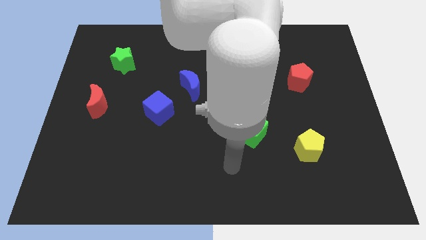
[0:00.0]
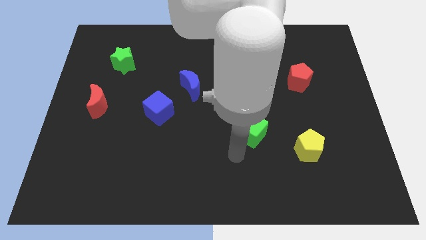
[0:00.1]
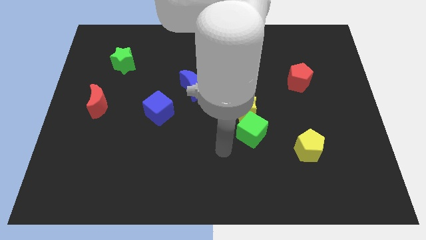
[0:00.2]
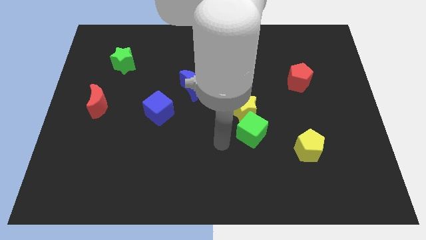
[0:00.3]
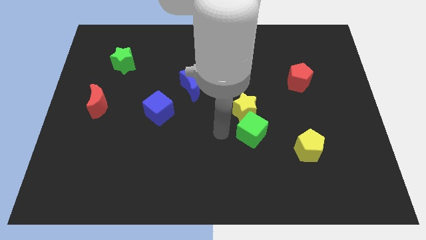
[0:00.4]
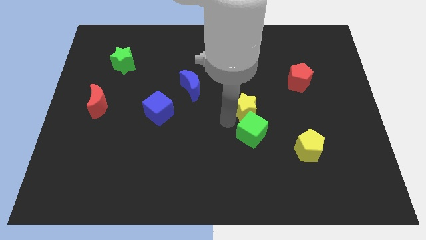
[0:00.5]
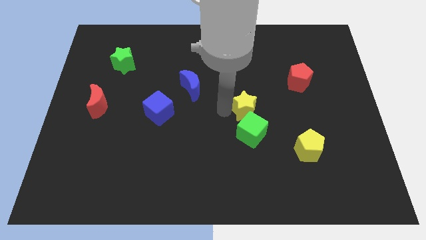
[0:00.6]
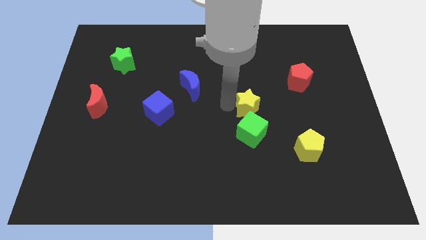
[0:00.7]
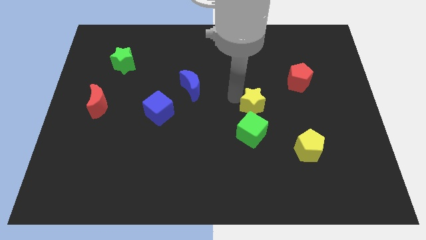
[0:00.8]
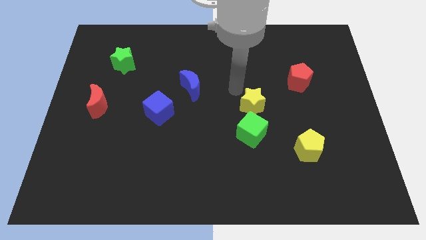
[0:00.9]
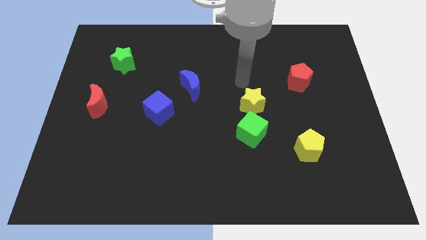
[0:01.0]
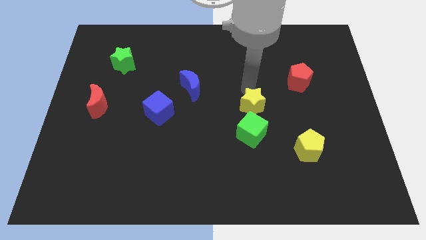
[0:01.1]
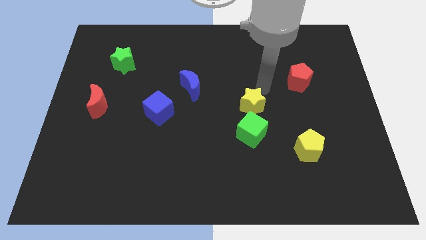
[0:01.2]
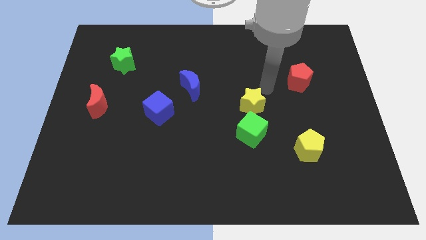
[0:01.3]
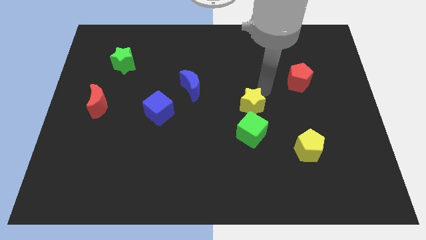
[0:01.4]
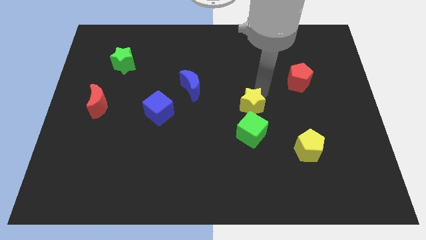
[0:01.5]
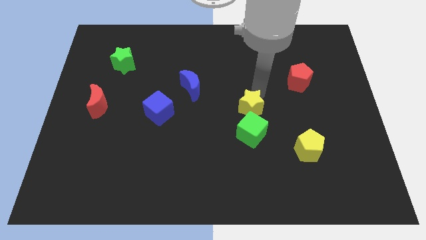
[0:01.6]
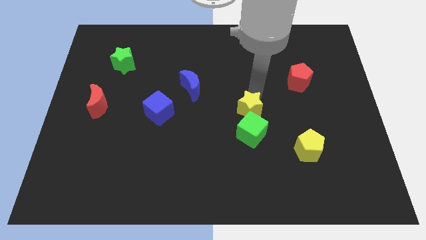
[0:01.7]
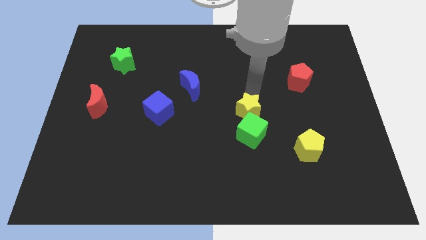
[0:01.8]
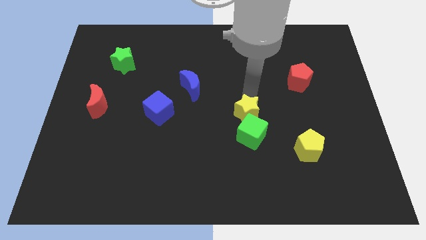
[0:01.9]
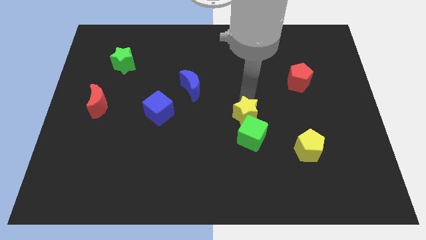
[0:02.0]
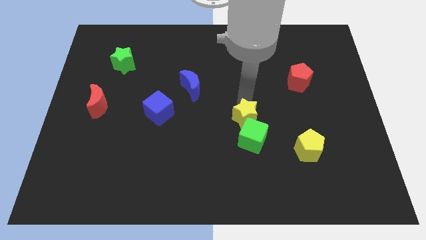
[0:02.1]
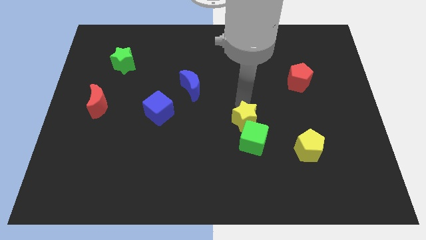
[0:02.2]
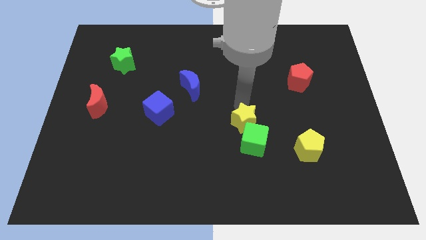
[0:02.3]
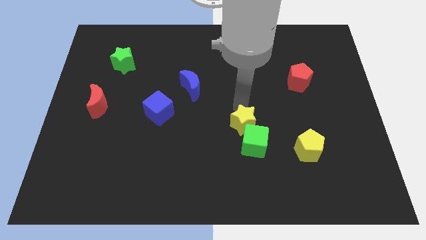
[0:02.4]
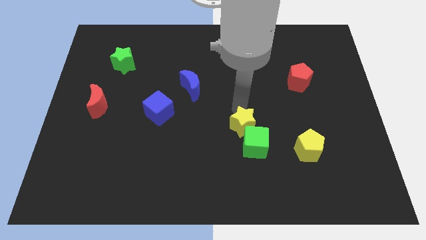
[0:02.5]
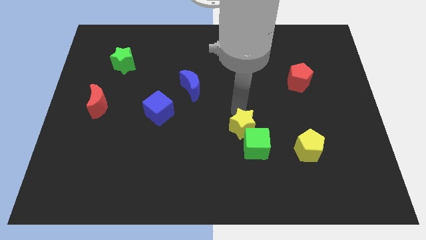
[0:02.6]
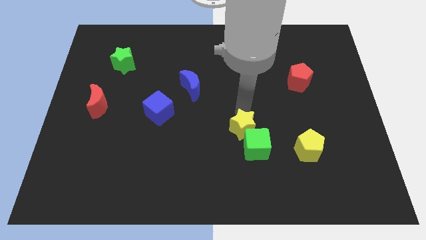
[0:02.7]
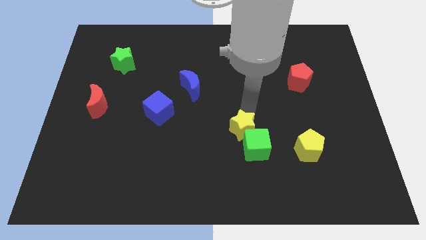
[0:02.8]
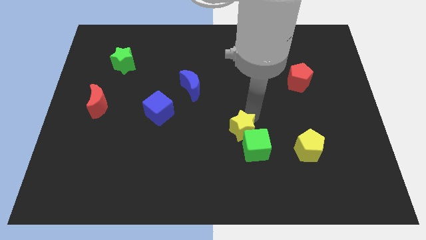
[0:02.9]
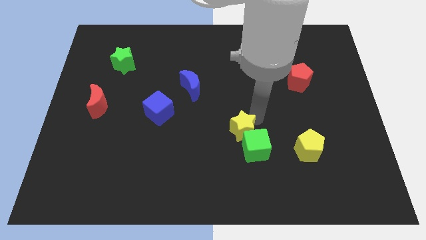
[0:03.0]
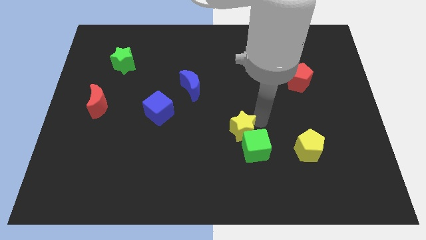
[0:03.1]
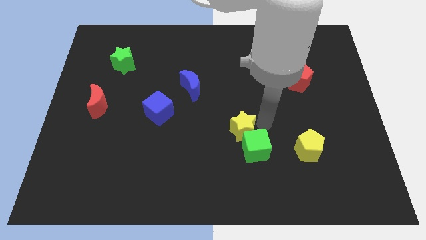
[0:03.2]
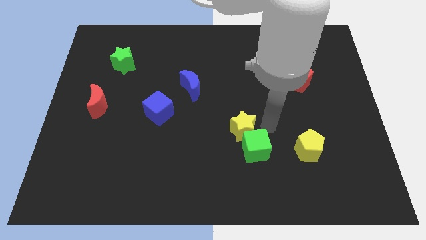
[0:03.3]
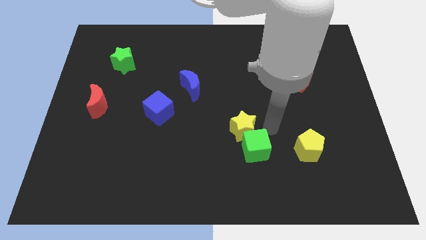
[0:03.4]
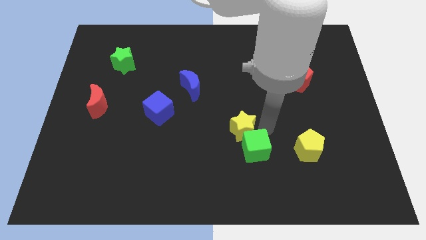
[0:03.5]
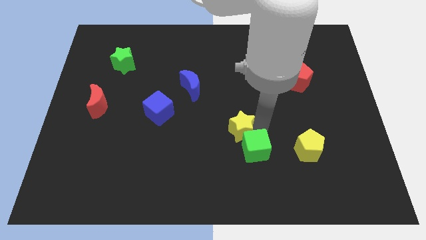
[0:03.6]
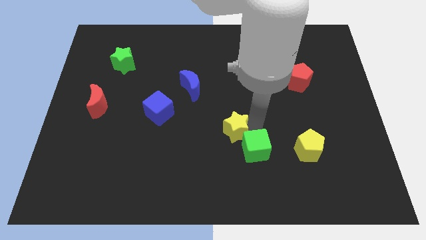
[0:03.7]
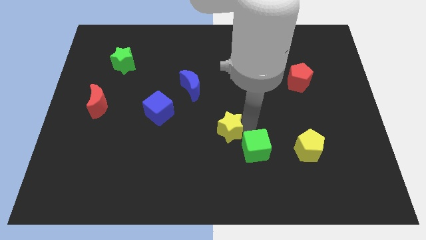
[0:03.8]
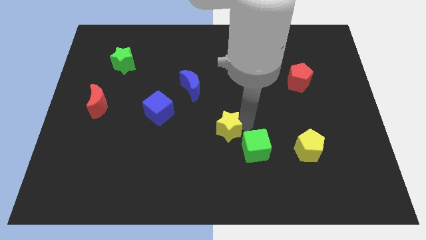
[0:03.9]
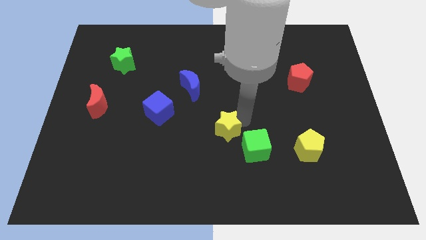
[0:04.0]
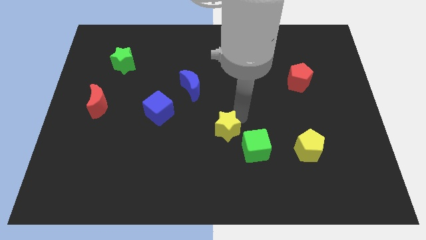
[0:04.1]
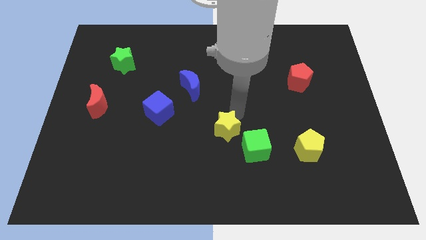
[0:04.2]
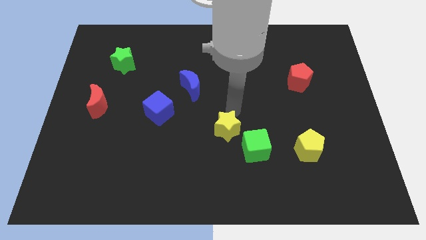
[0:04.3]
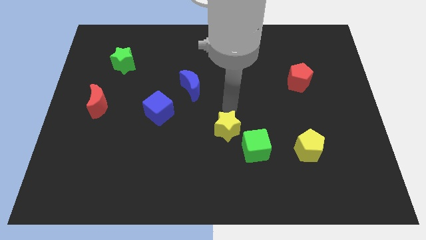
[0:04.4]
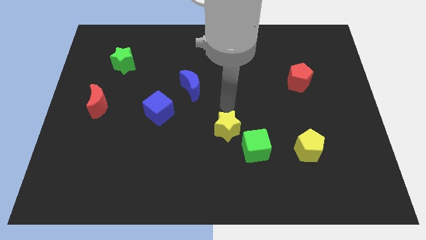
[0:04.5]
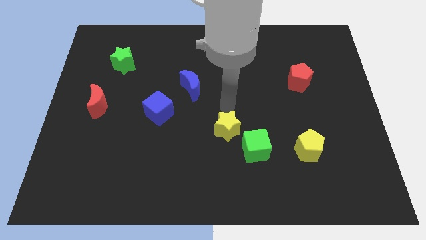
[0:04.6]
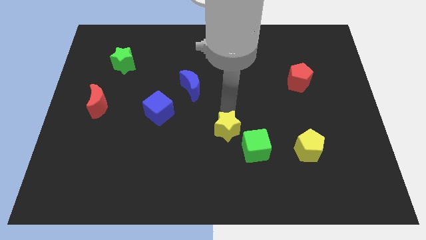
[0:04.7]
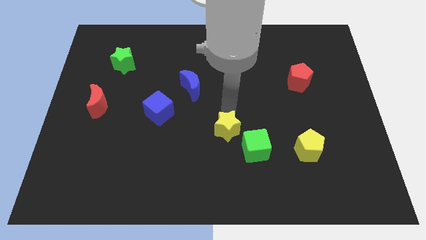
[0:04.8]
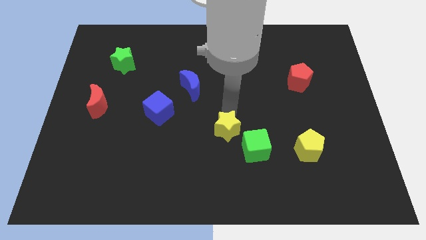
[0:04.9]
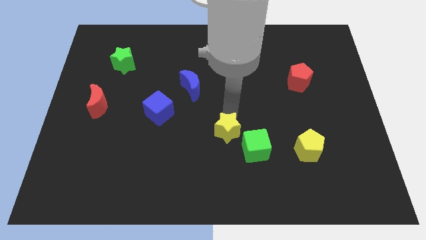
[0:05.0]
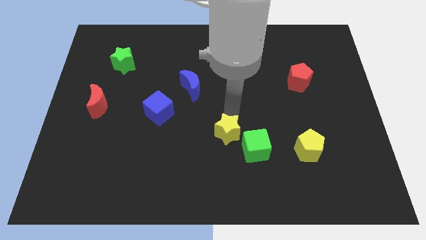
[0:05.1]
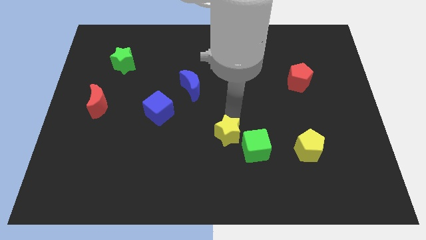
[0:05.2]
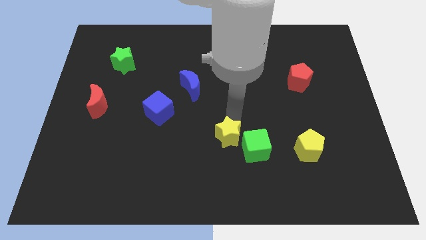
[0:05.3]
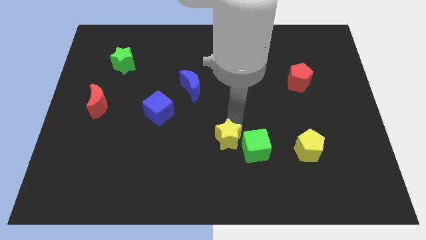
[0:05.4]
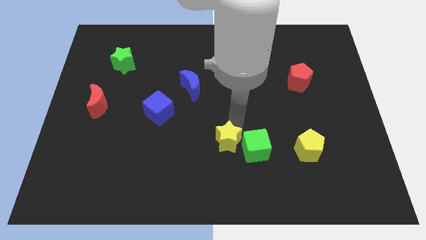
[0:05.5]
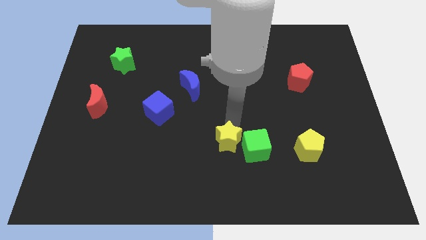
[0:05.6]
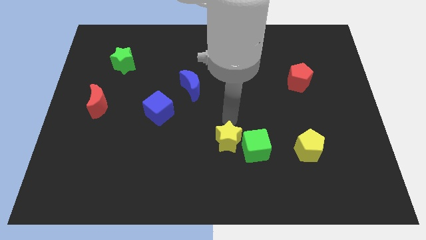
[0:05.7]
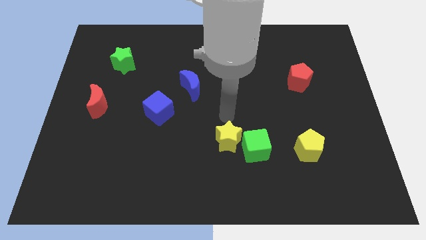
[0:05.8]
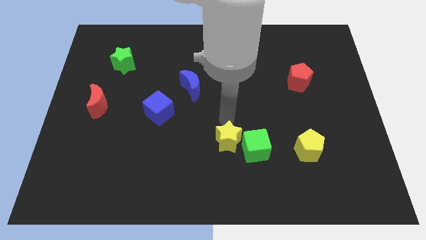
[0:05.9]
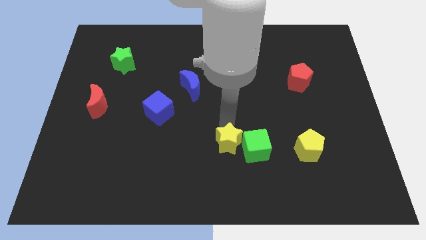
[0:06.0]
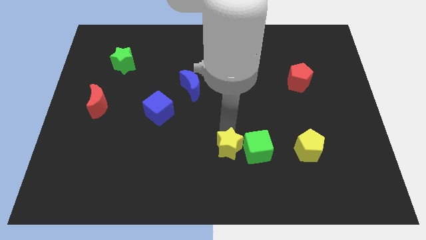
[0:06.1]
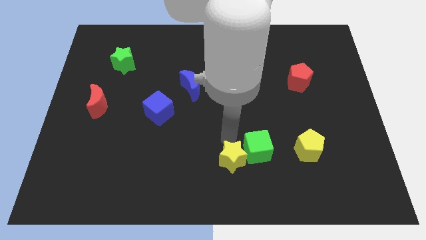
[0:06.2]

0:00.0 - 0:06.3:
put the yellow star to the bottom

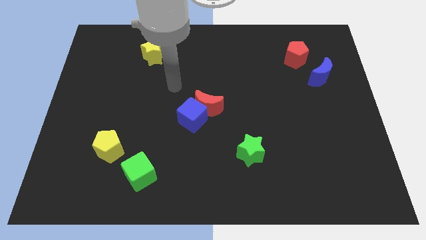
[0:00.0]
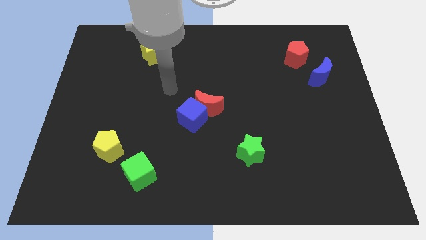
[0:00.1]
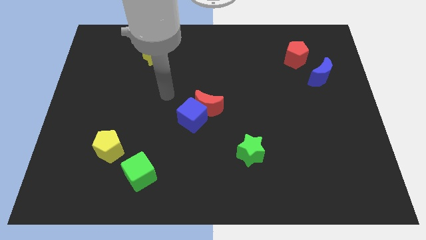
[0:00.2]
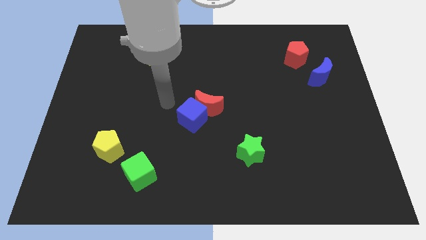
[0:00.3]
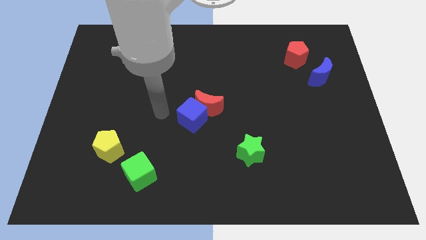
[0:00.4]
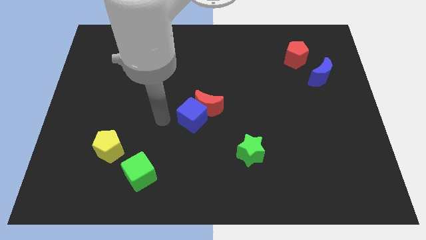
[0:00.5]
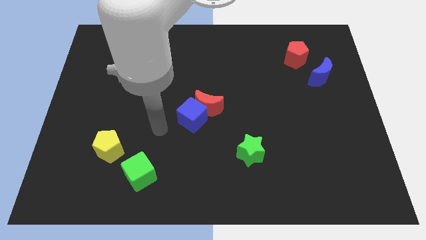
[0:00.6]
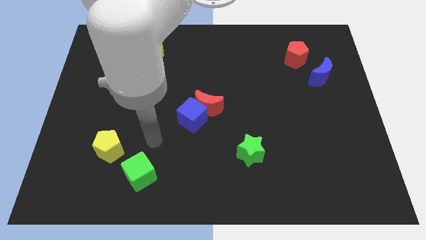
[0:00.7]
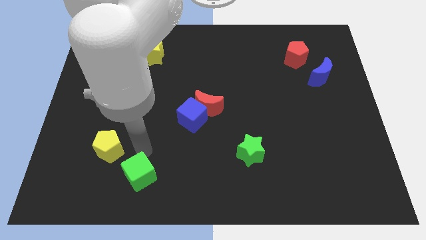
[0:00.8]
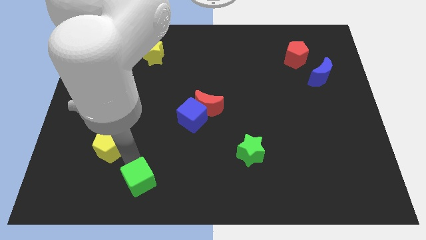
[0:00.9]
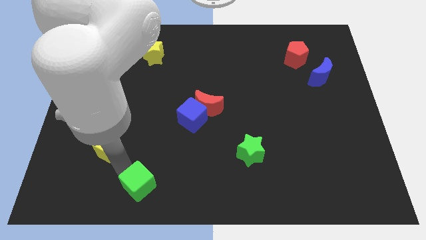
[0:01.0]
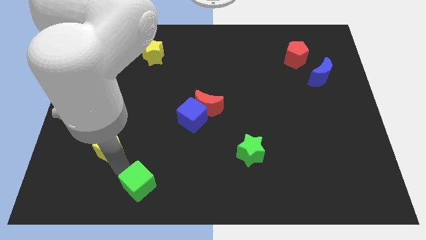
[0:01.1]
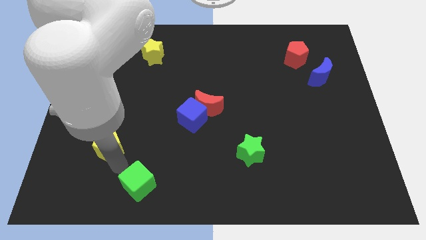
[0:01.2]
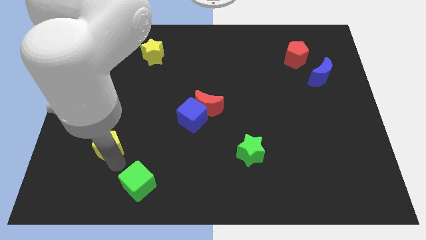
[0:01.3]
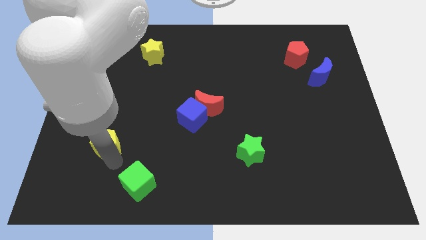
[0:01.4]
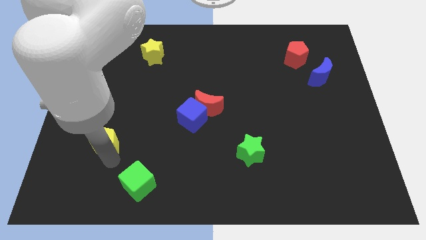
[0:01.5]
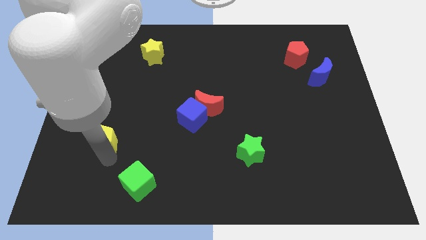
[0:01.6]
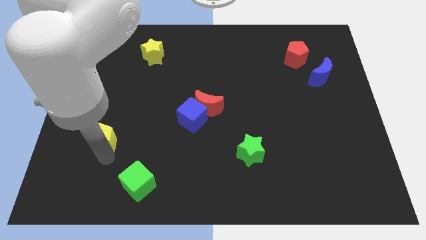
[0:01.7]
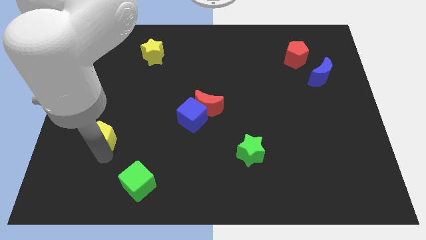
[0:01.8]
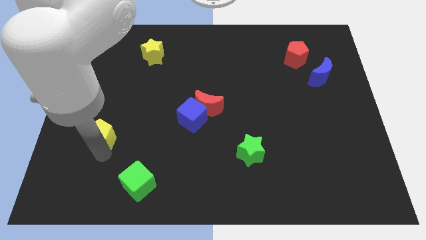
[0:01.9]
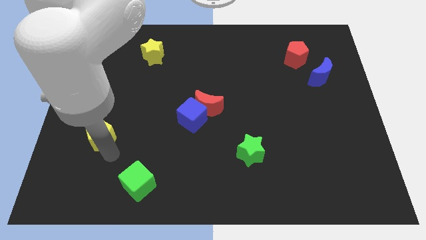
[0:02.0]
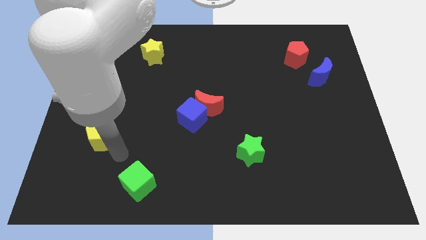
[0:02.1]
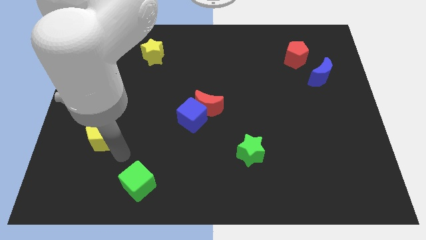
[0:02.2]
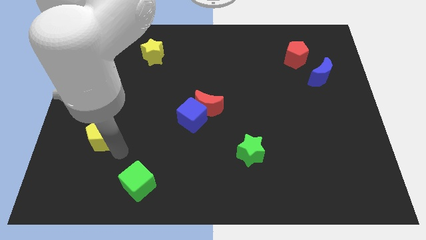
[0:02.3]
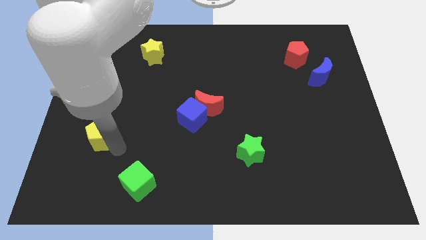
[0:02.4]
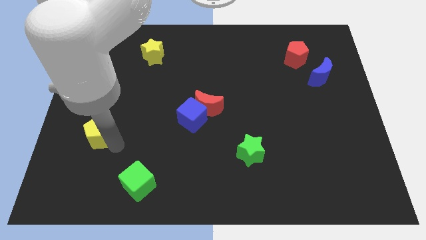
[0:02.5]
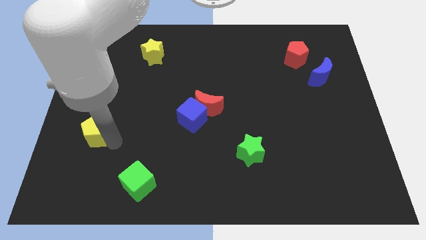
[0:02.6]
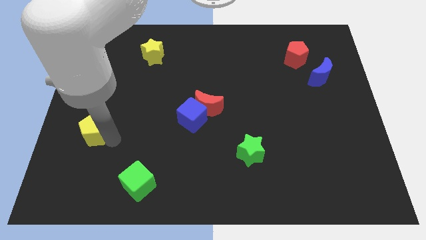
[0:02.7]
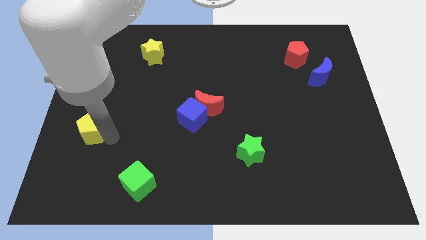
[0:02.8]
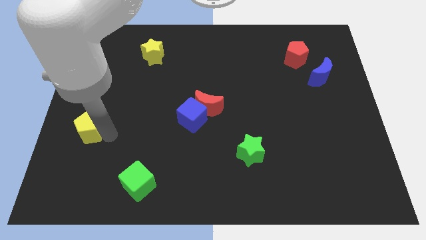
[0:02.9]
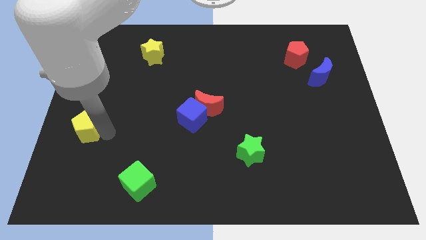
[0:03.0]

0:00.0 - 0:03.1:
push the yellow pentagon to the center left
